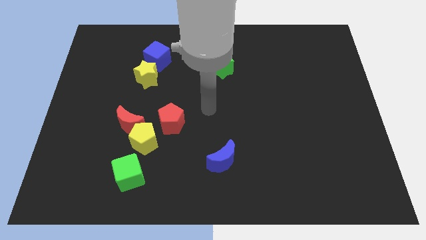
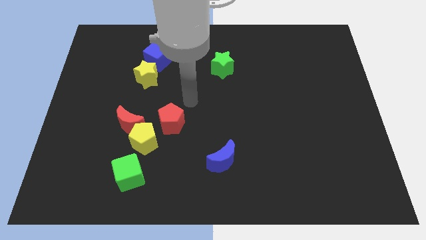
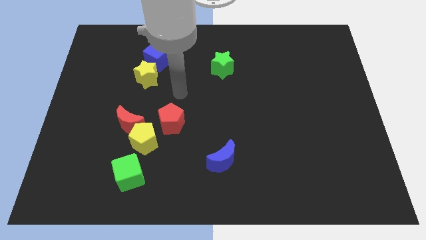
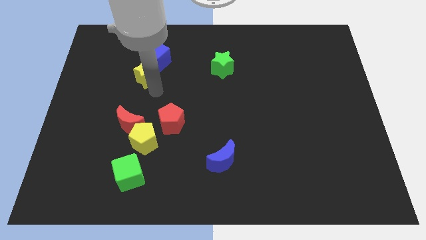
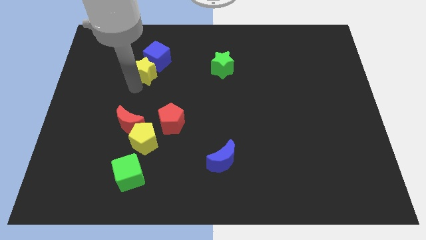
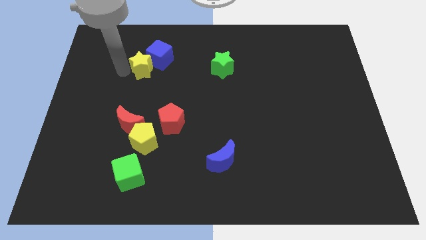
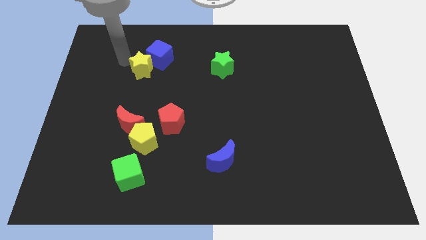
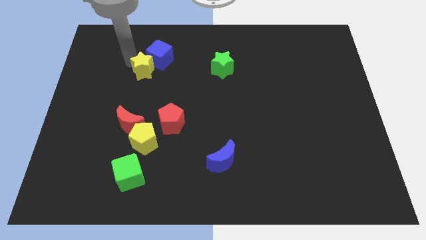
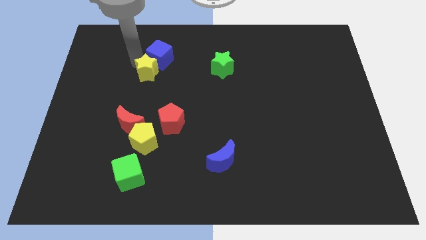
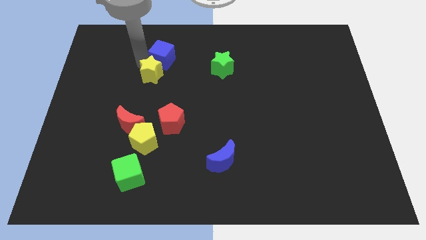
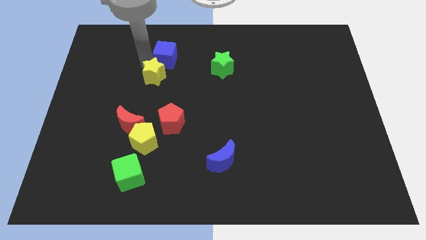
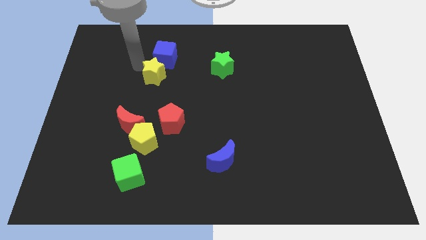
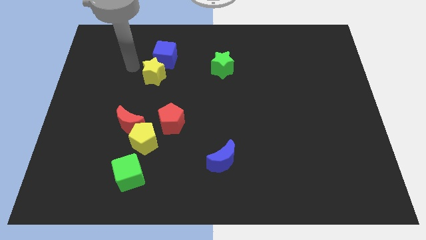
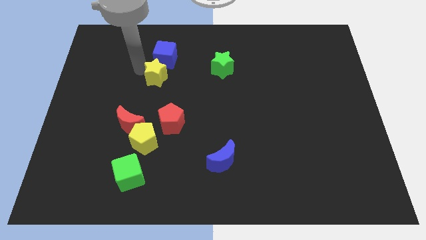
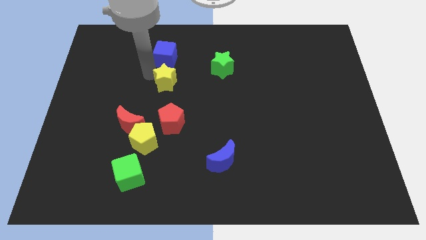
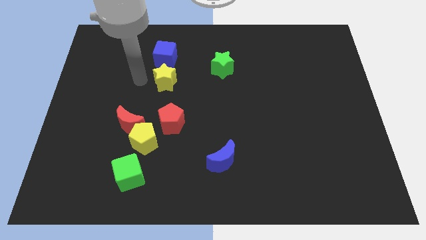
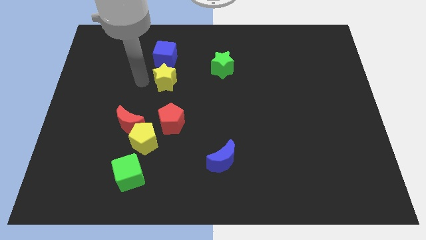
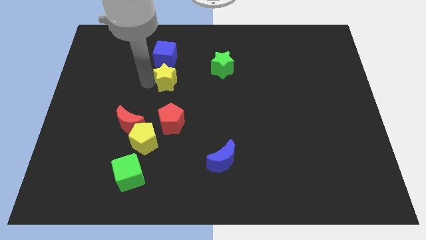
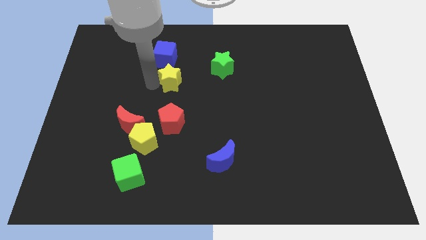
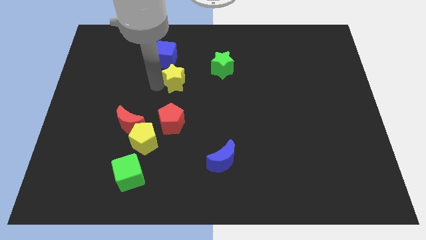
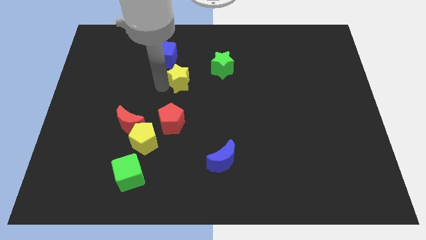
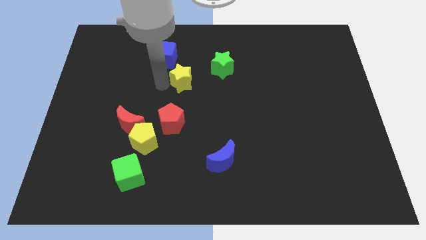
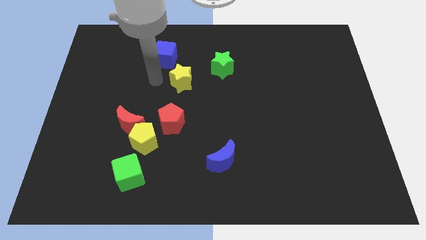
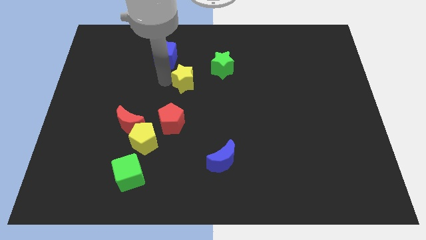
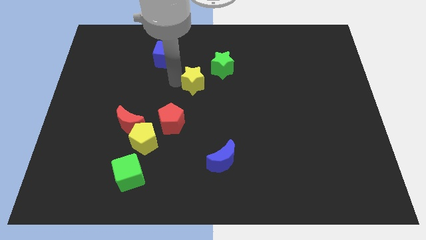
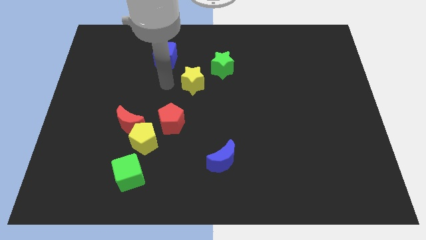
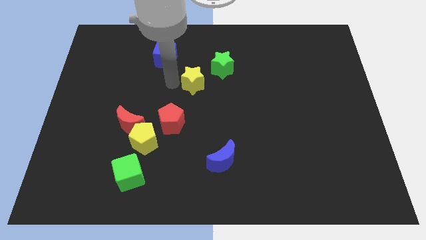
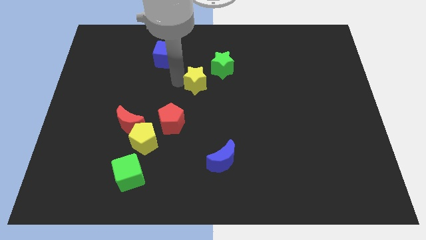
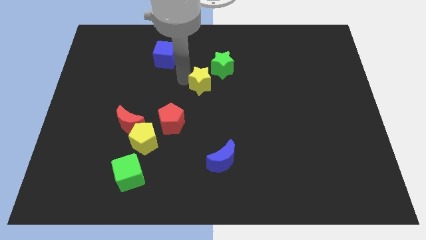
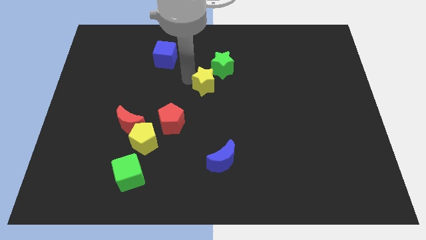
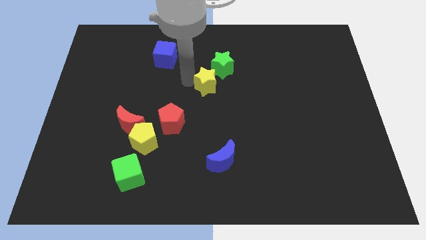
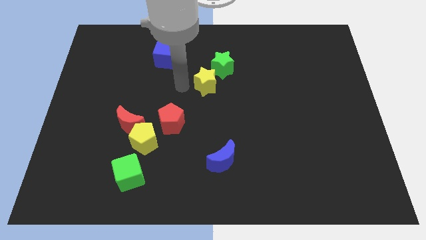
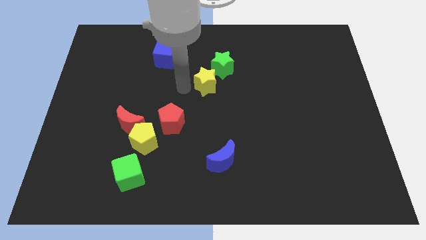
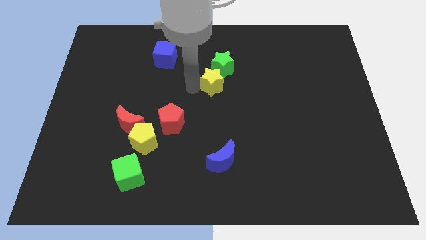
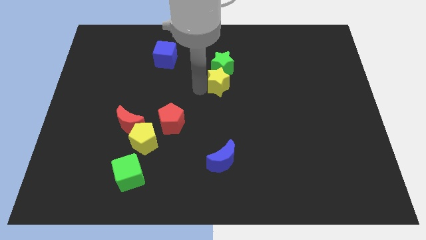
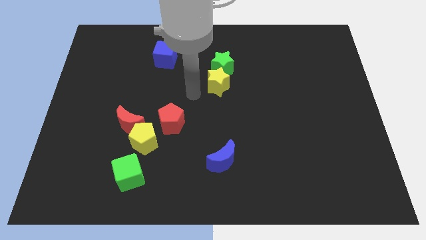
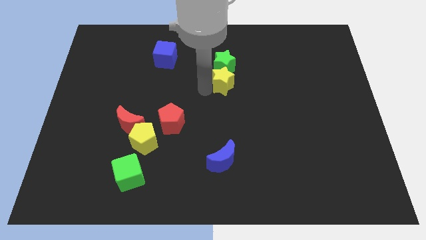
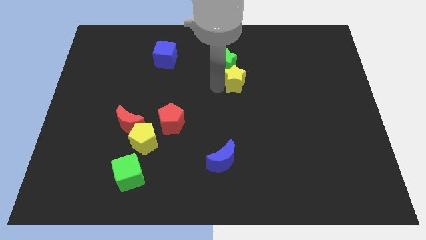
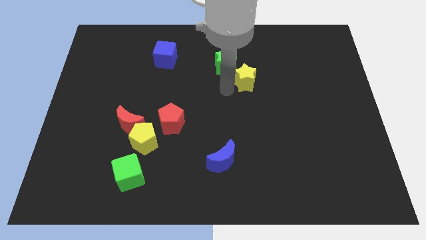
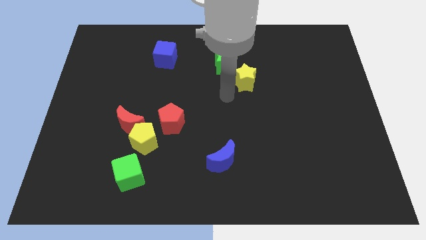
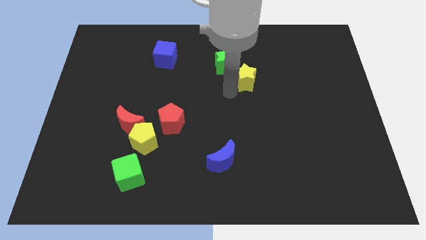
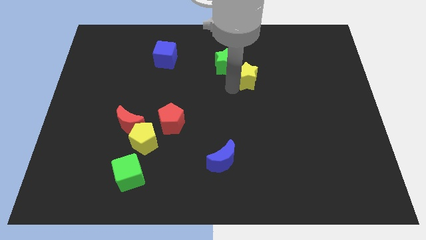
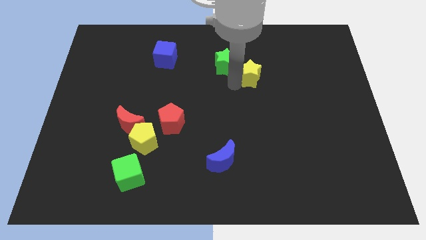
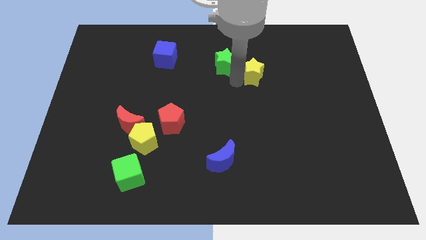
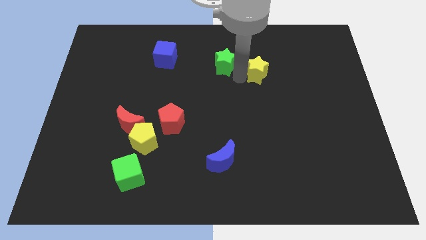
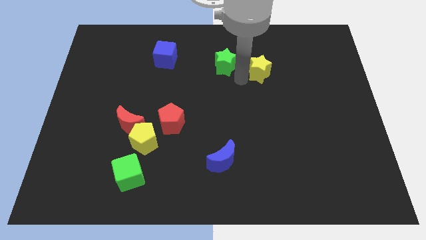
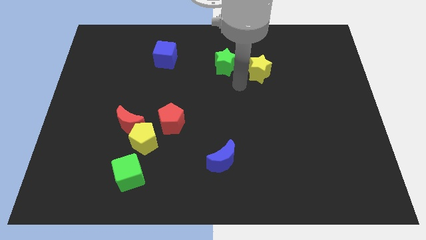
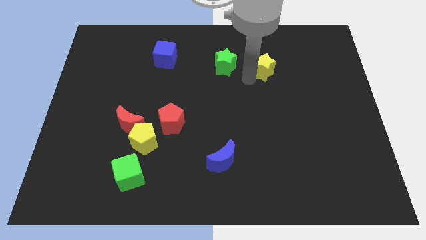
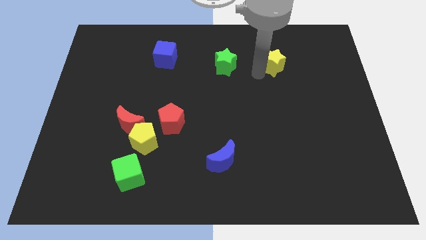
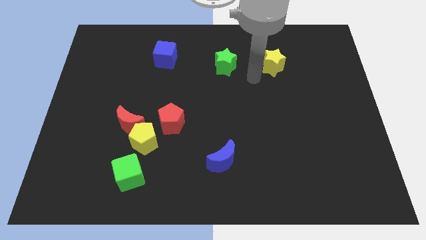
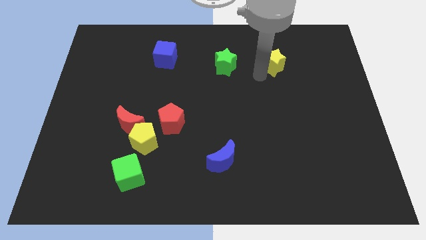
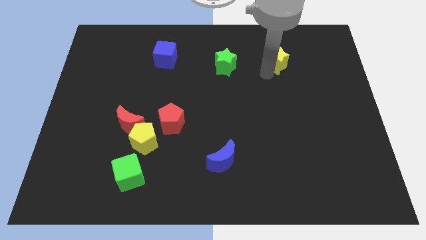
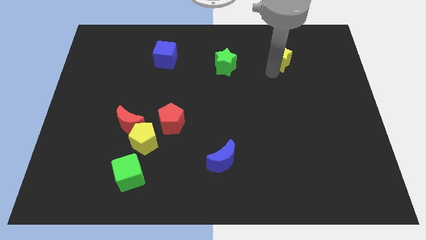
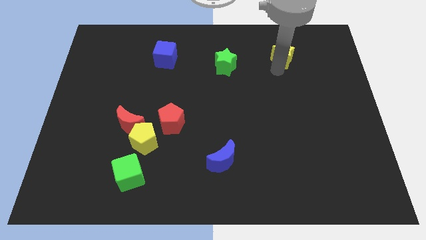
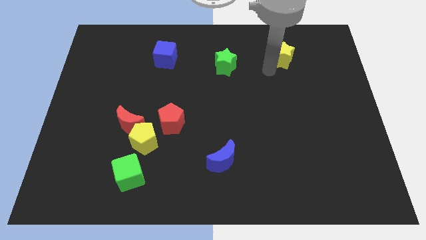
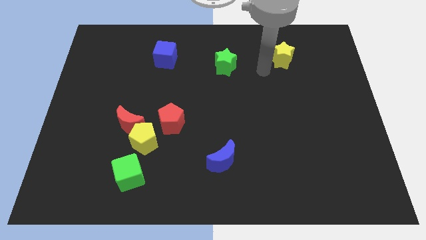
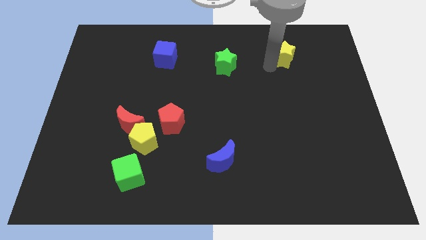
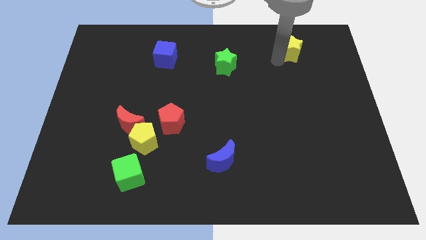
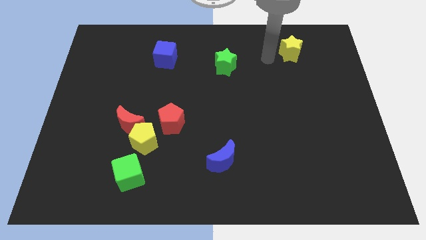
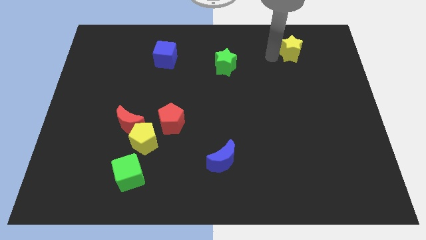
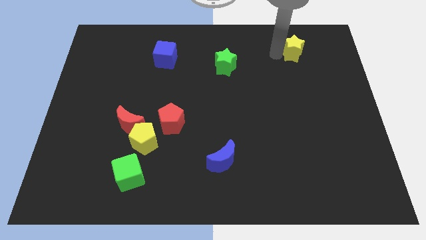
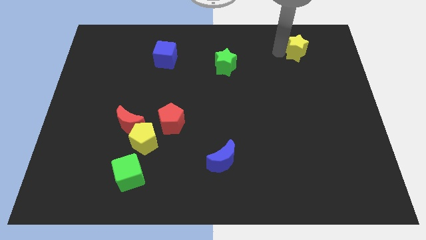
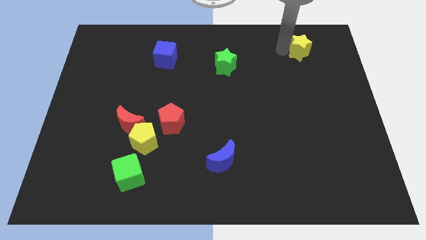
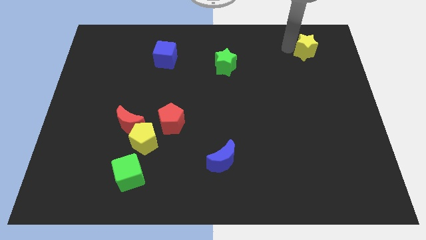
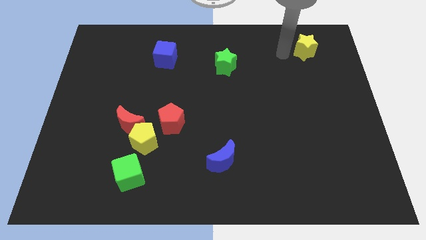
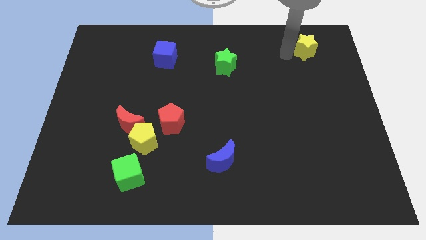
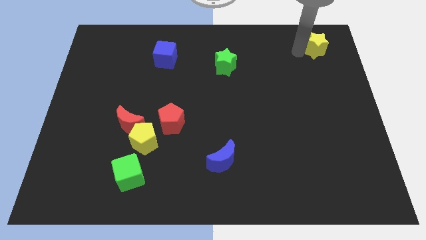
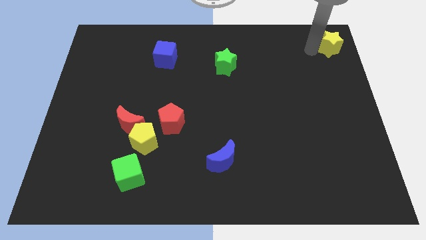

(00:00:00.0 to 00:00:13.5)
push the yellow star to the top right of the board
